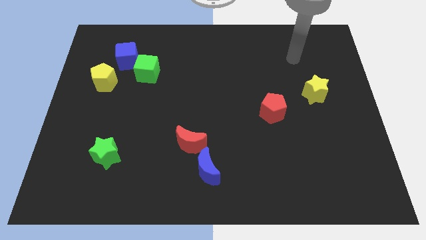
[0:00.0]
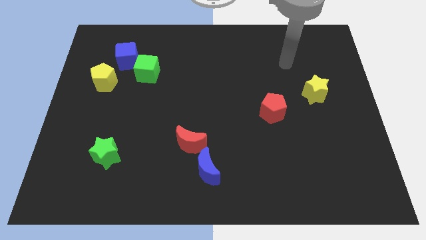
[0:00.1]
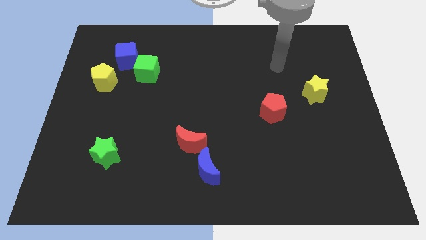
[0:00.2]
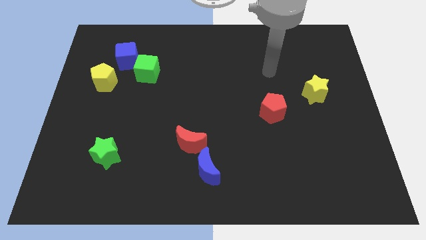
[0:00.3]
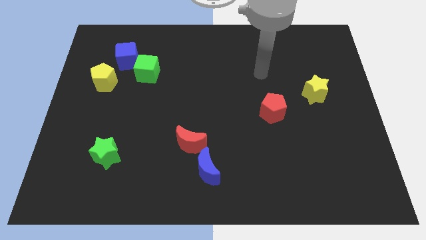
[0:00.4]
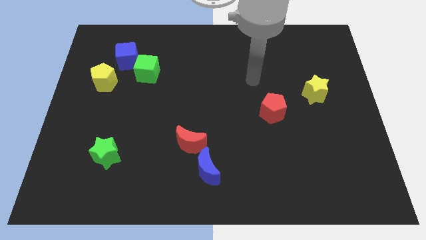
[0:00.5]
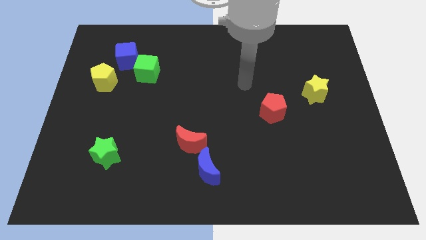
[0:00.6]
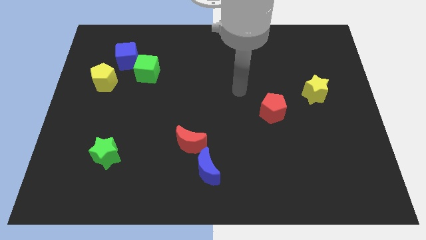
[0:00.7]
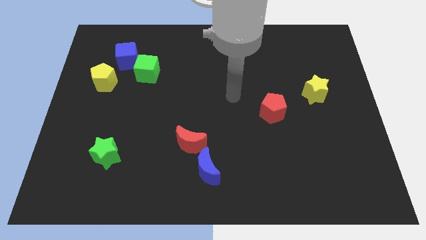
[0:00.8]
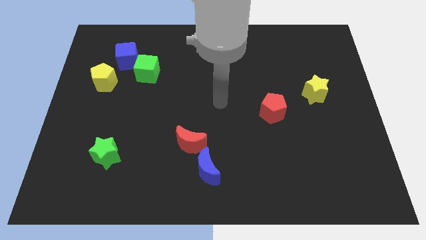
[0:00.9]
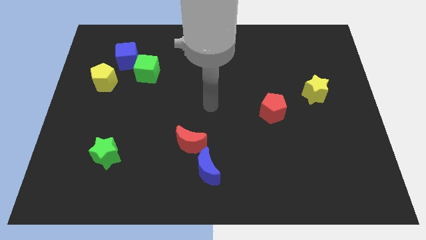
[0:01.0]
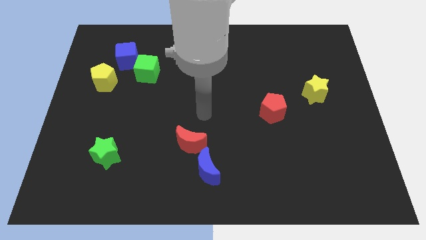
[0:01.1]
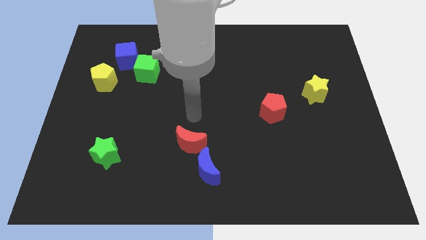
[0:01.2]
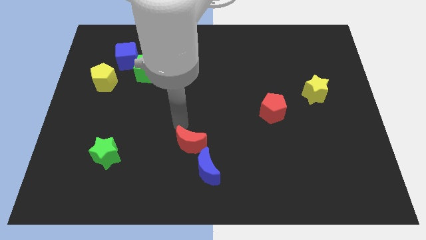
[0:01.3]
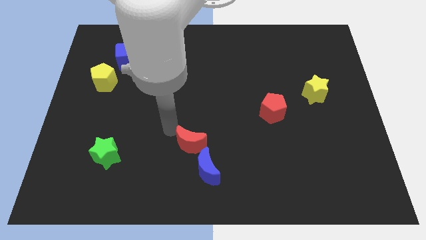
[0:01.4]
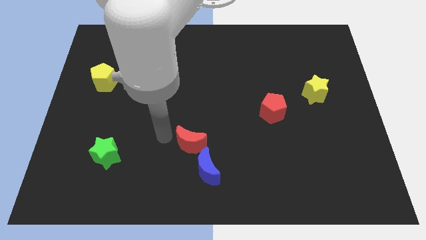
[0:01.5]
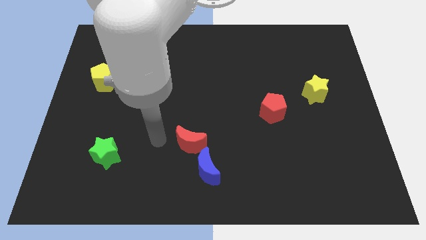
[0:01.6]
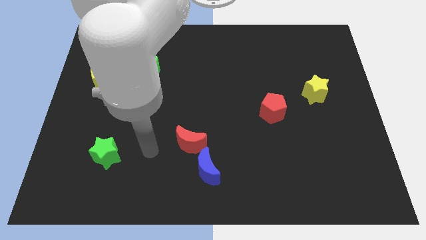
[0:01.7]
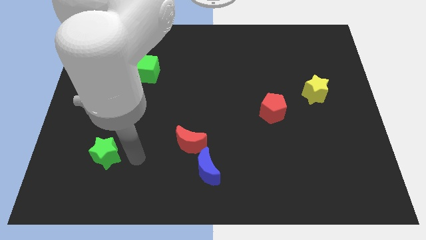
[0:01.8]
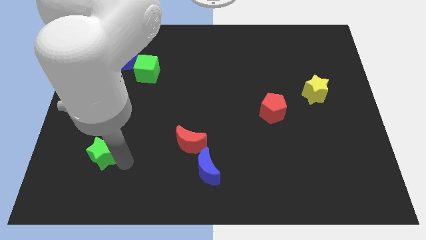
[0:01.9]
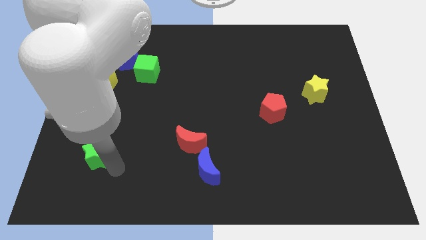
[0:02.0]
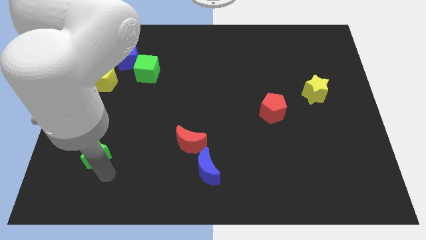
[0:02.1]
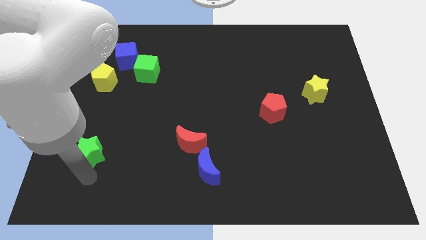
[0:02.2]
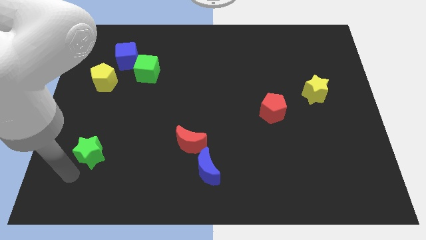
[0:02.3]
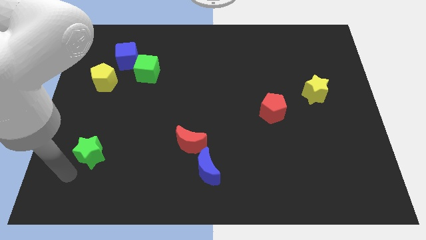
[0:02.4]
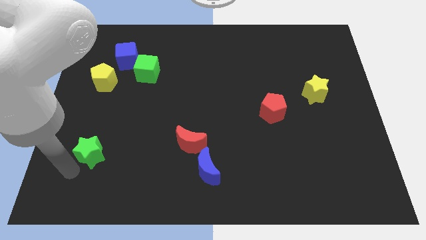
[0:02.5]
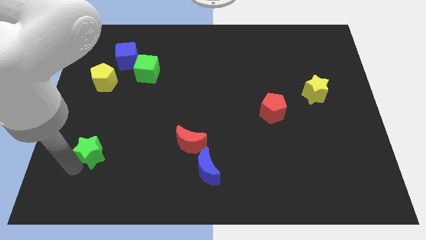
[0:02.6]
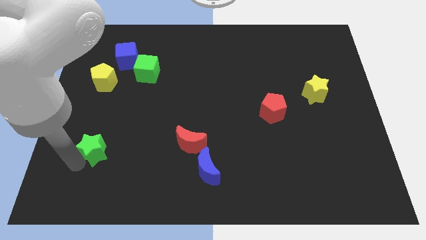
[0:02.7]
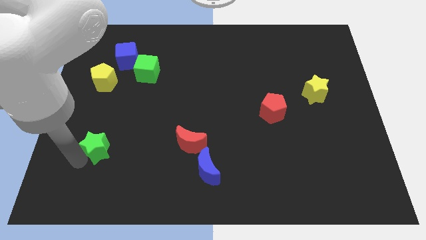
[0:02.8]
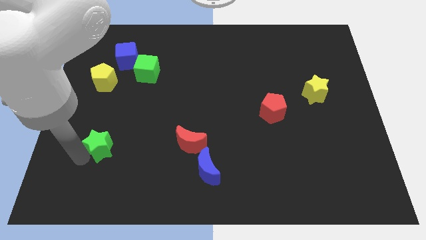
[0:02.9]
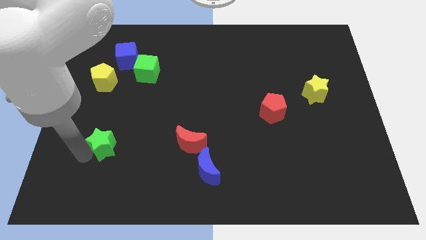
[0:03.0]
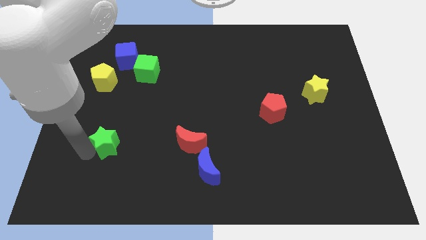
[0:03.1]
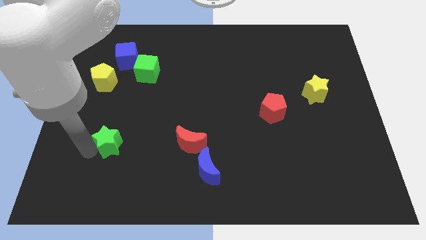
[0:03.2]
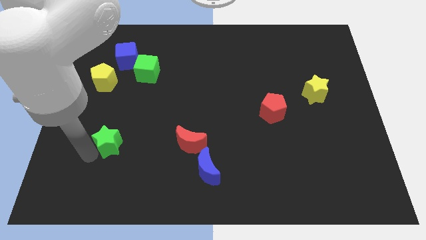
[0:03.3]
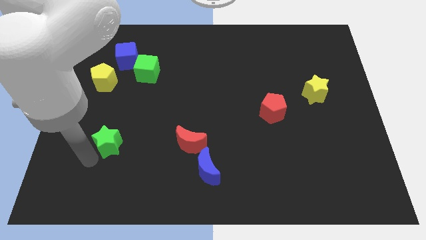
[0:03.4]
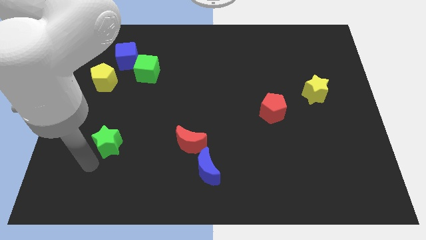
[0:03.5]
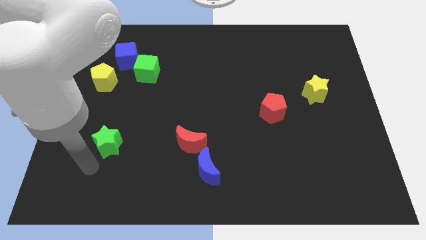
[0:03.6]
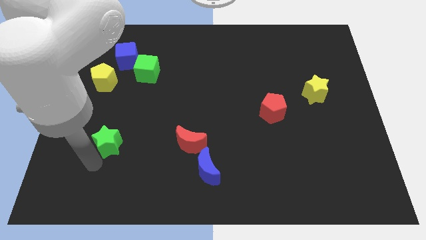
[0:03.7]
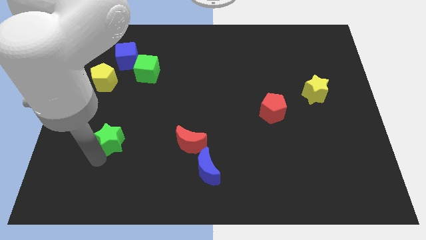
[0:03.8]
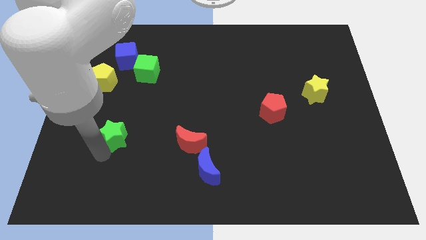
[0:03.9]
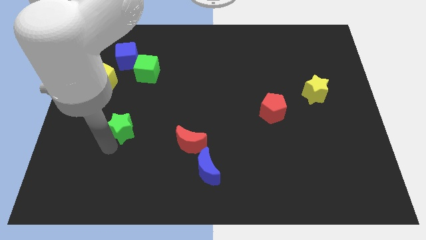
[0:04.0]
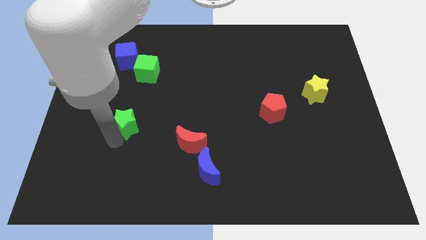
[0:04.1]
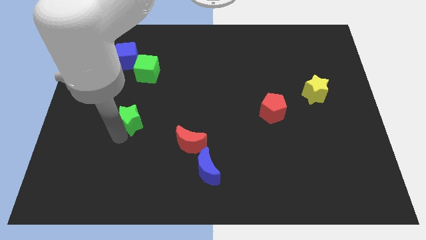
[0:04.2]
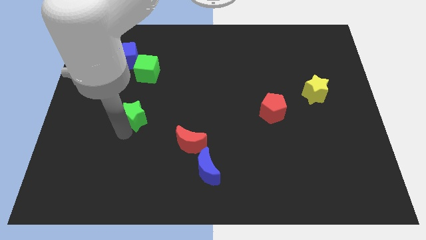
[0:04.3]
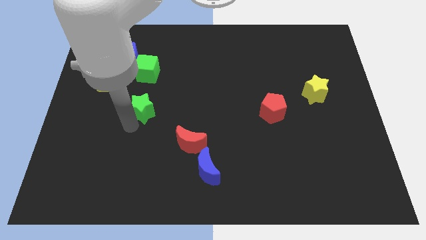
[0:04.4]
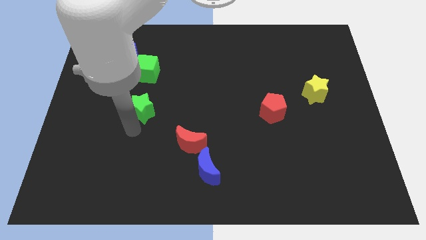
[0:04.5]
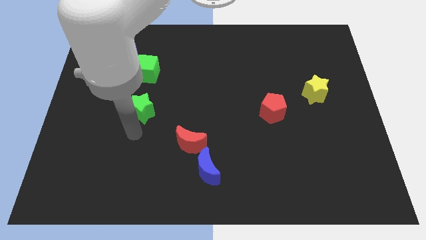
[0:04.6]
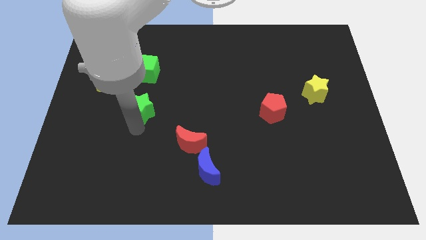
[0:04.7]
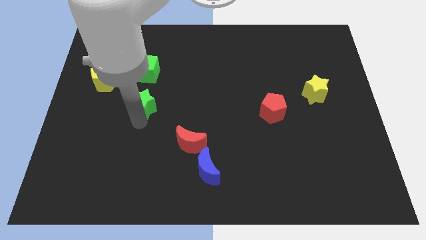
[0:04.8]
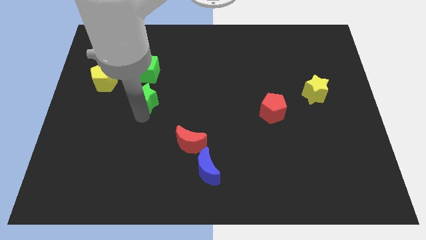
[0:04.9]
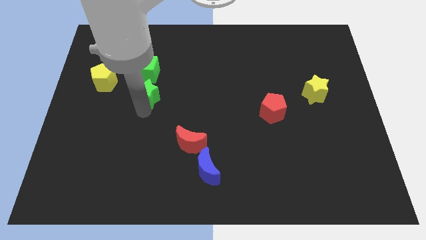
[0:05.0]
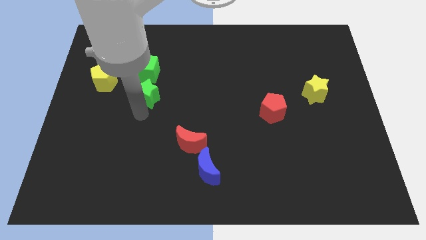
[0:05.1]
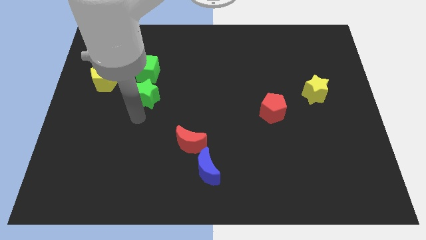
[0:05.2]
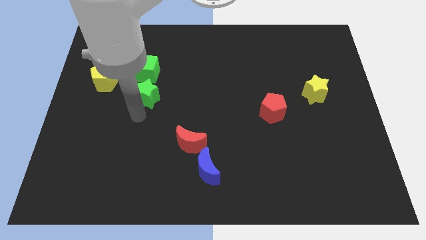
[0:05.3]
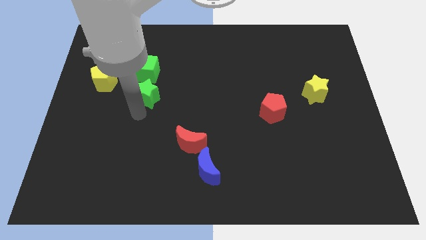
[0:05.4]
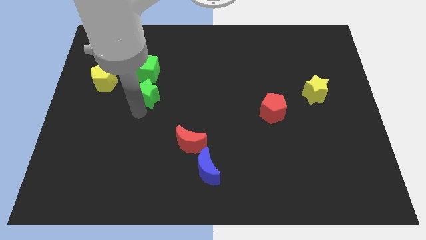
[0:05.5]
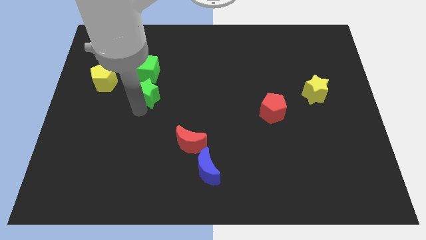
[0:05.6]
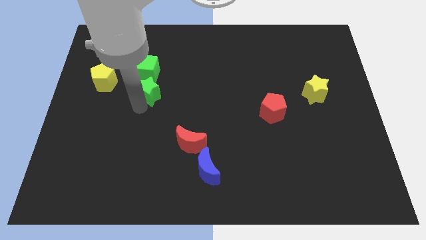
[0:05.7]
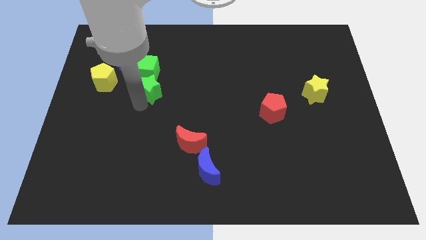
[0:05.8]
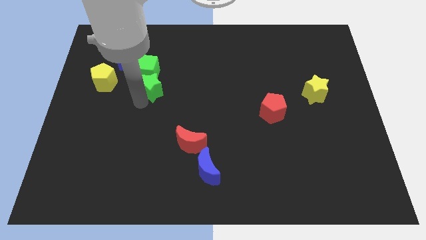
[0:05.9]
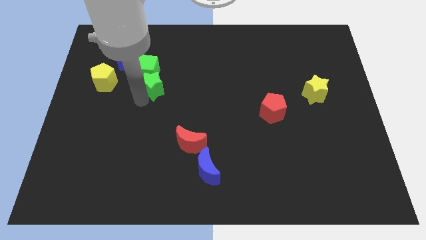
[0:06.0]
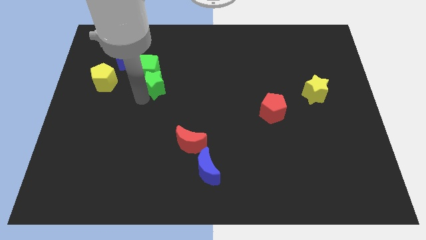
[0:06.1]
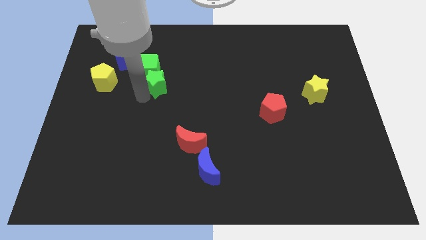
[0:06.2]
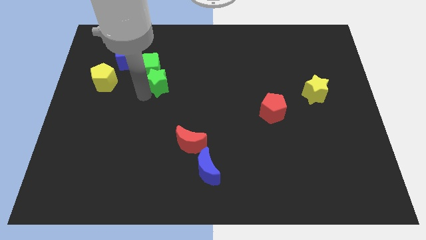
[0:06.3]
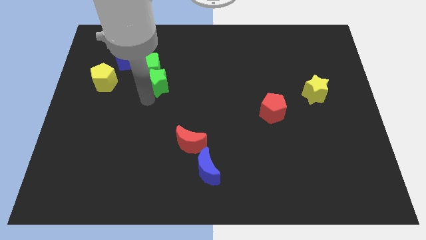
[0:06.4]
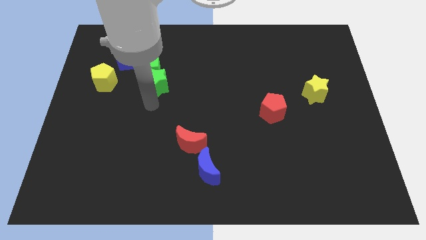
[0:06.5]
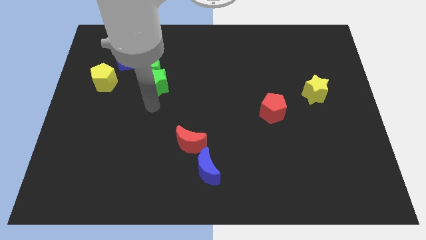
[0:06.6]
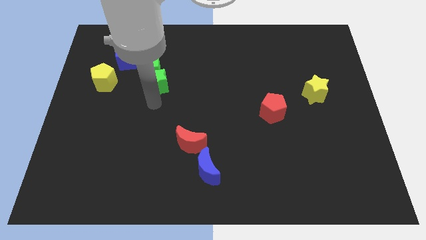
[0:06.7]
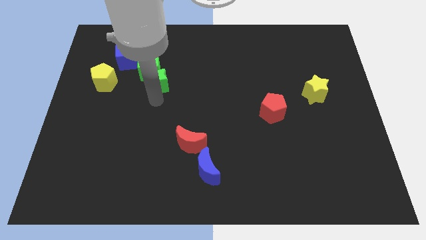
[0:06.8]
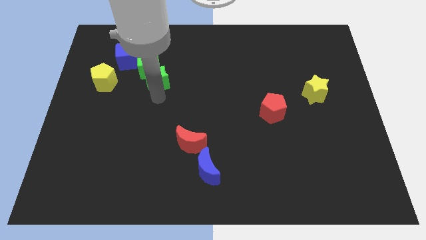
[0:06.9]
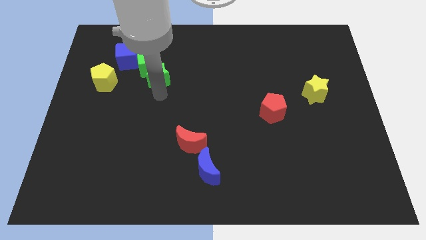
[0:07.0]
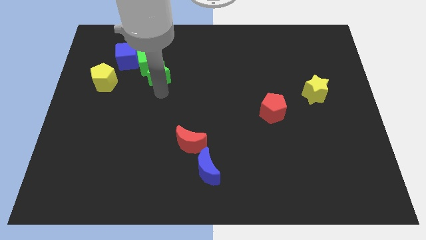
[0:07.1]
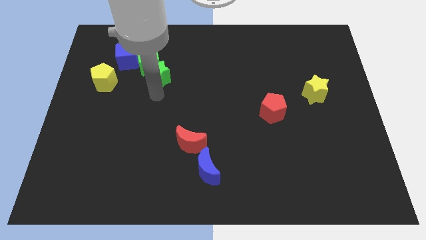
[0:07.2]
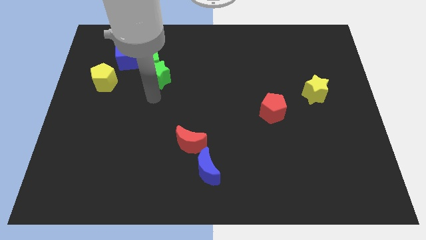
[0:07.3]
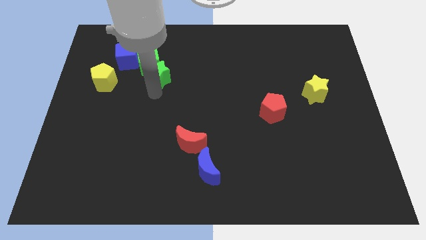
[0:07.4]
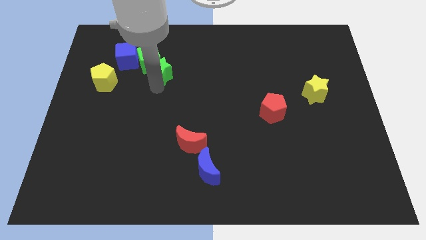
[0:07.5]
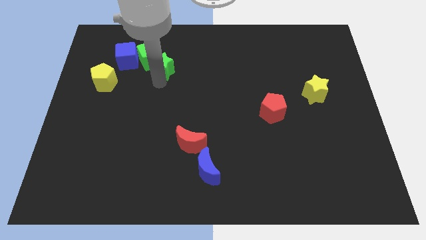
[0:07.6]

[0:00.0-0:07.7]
push the green star just right of the blue cube
